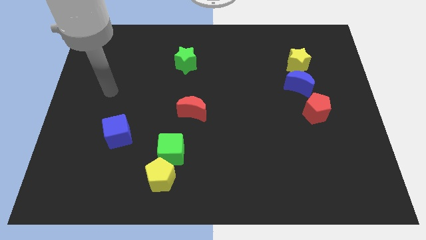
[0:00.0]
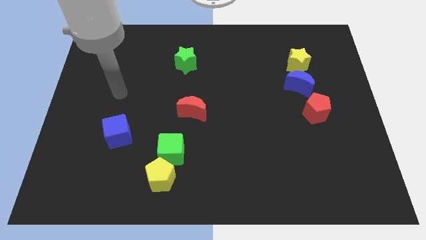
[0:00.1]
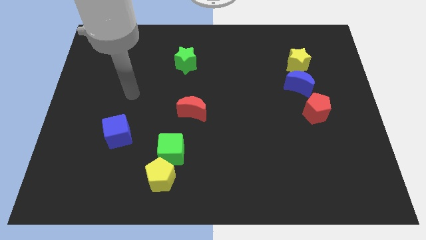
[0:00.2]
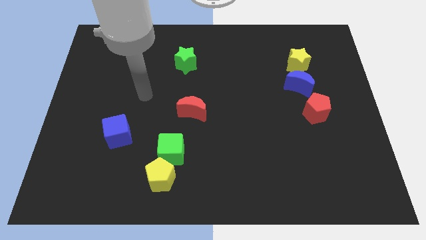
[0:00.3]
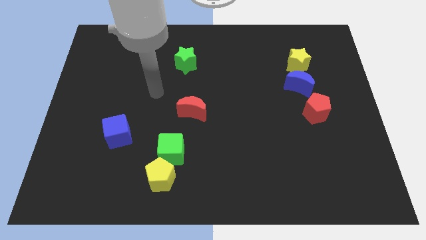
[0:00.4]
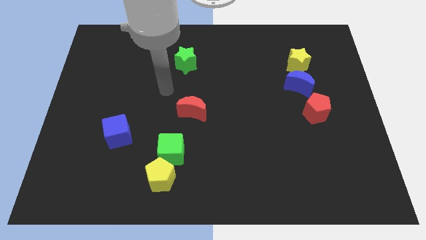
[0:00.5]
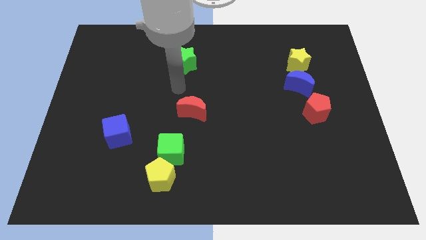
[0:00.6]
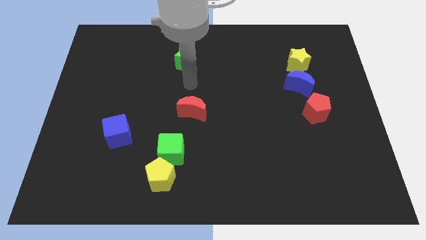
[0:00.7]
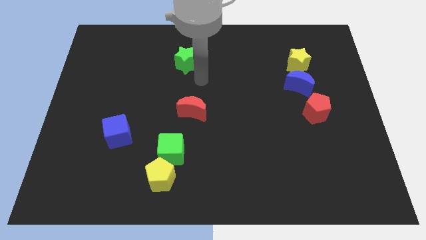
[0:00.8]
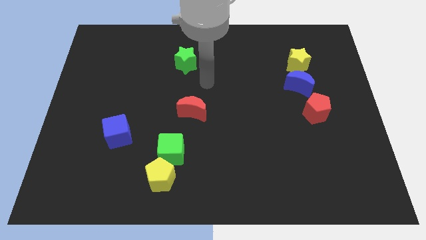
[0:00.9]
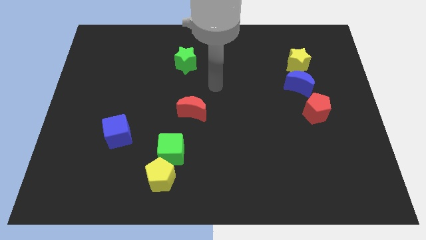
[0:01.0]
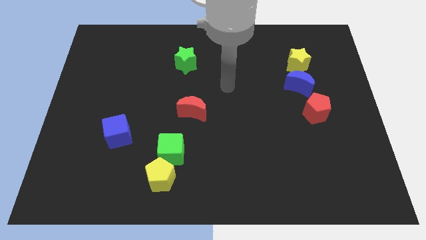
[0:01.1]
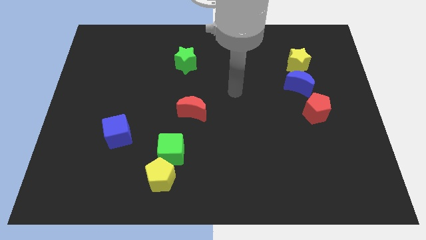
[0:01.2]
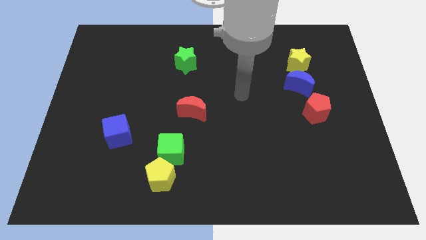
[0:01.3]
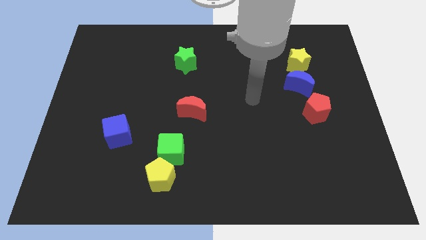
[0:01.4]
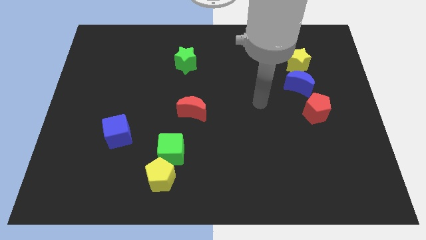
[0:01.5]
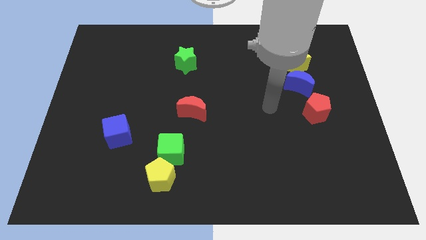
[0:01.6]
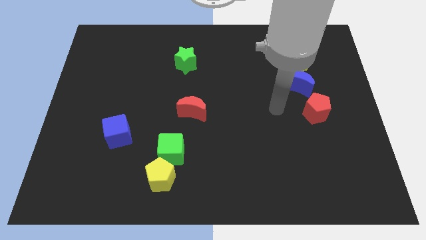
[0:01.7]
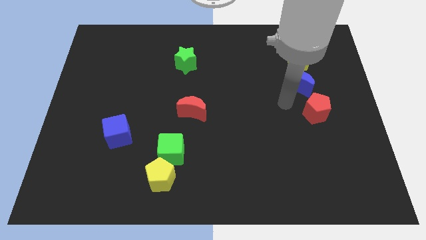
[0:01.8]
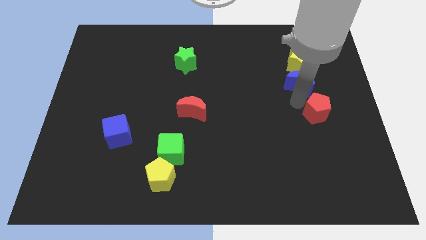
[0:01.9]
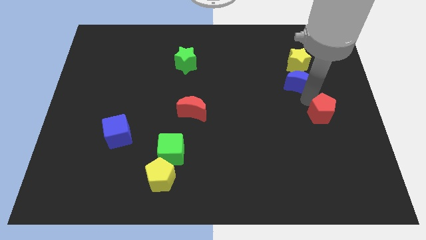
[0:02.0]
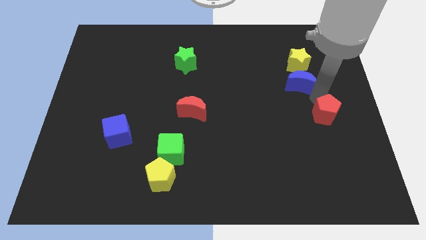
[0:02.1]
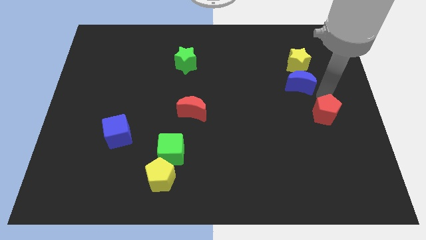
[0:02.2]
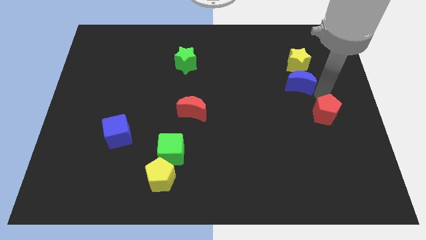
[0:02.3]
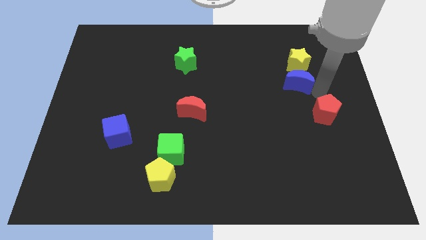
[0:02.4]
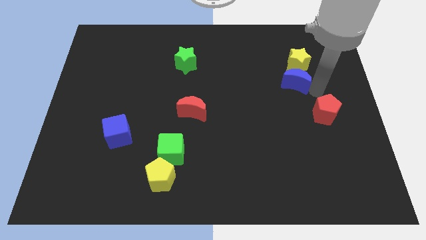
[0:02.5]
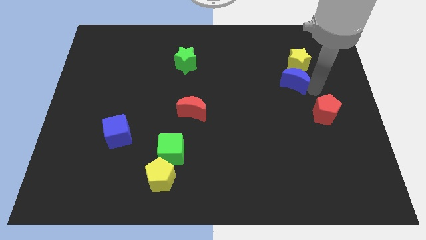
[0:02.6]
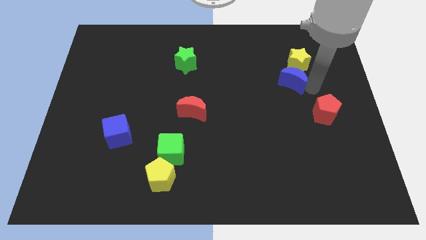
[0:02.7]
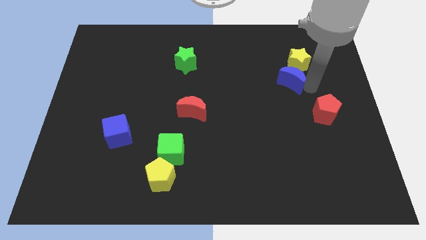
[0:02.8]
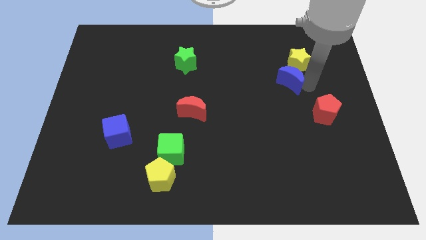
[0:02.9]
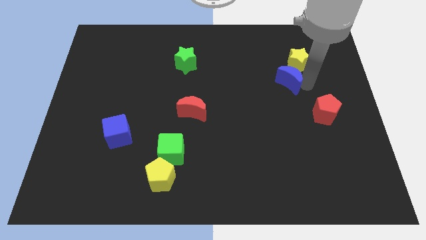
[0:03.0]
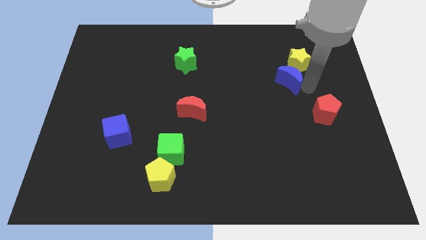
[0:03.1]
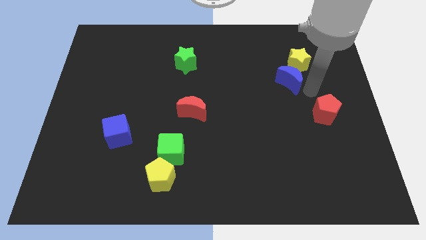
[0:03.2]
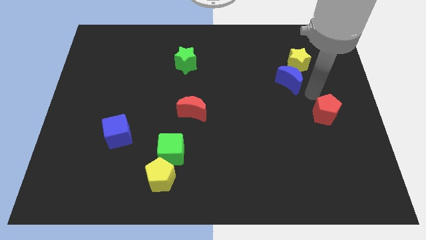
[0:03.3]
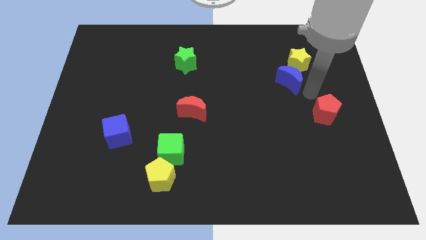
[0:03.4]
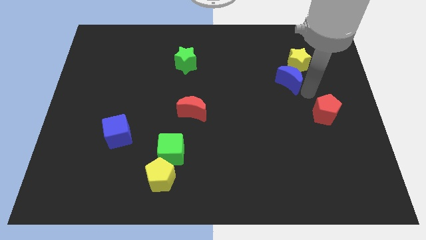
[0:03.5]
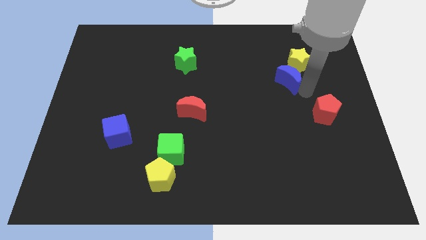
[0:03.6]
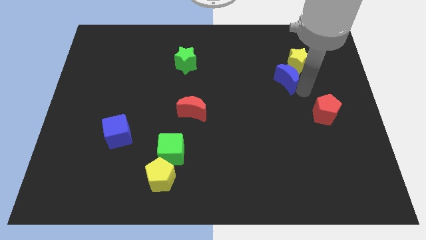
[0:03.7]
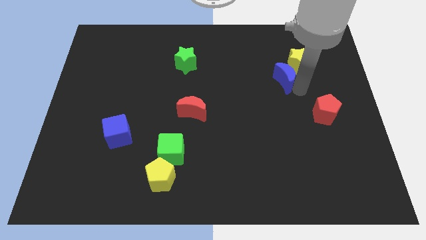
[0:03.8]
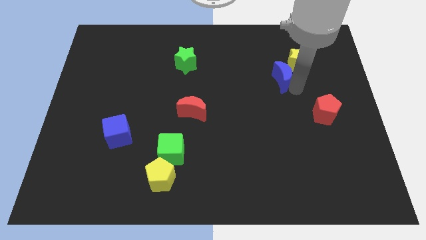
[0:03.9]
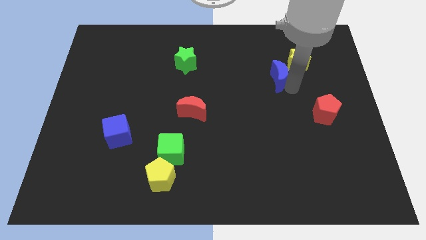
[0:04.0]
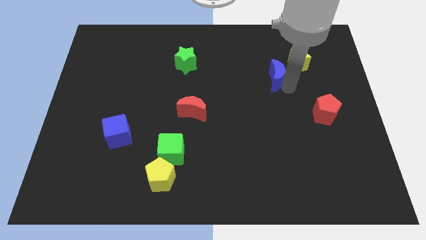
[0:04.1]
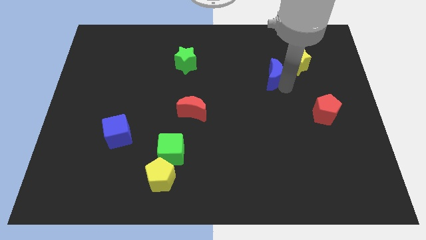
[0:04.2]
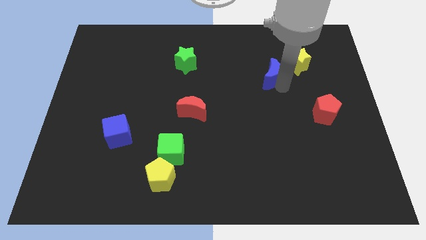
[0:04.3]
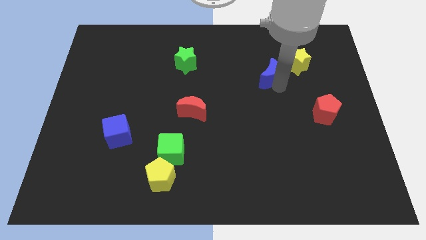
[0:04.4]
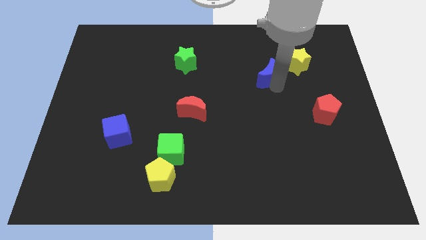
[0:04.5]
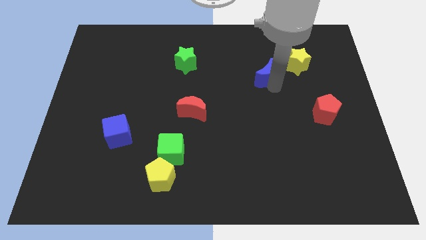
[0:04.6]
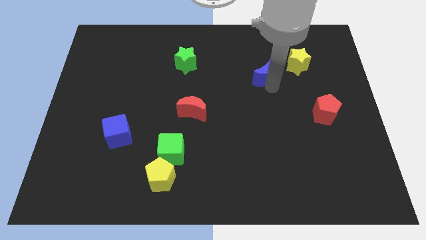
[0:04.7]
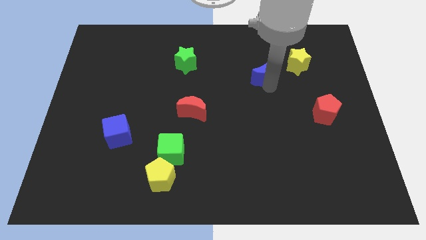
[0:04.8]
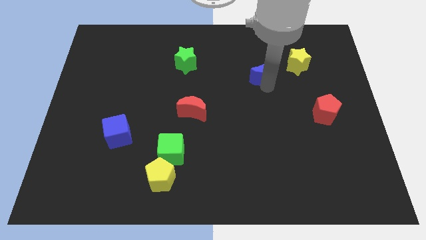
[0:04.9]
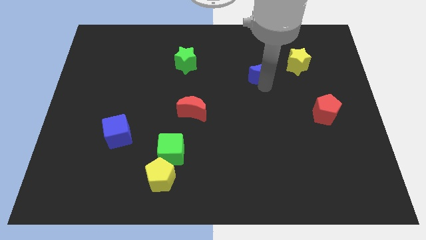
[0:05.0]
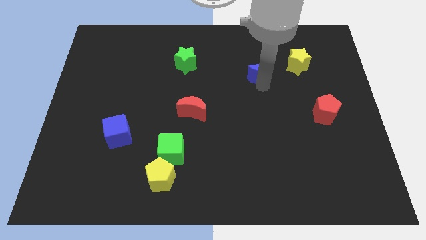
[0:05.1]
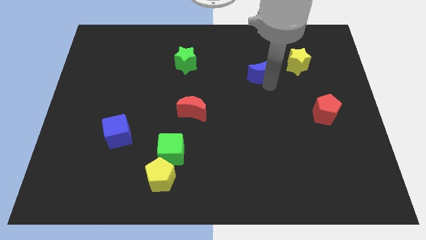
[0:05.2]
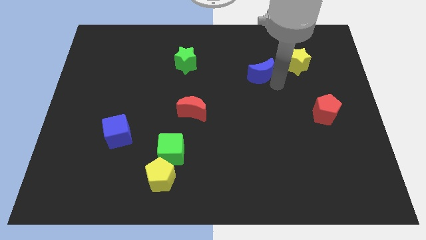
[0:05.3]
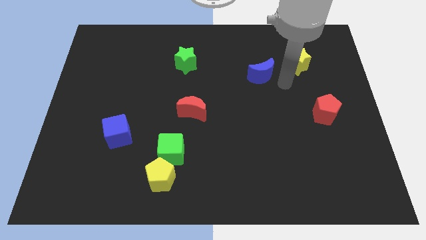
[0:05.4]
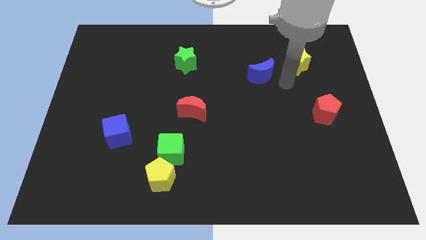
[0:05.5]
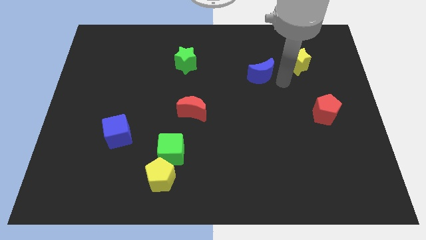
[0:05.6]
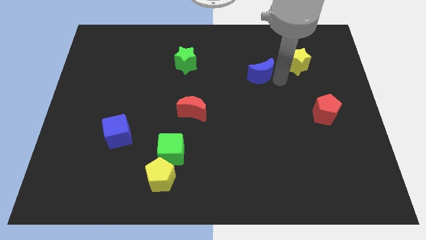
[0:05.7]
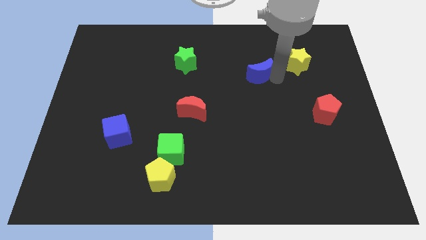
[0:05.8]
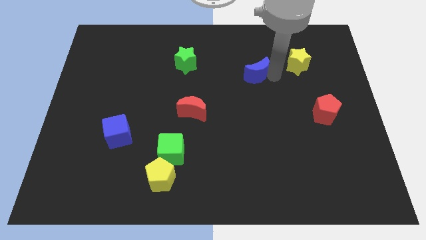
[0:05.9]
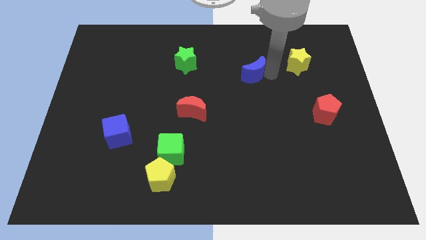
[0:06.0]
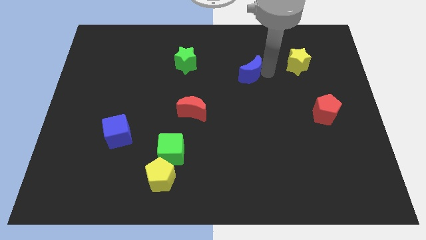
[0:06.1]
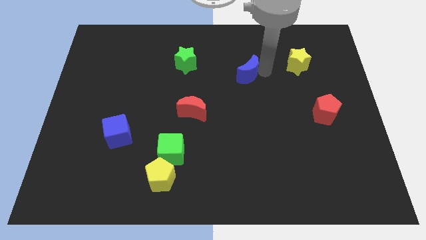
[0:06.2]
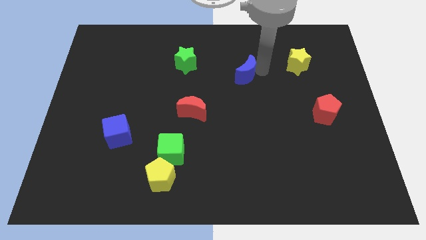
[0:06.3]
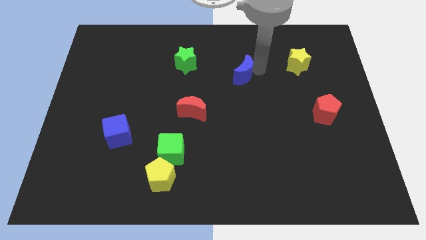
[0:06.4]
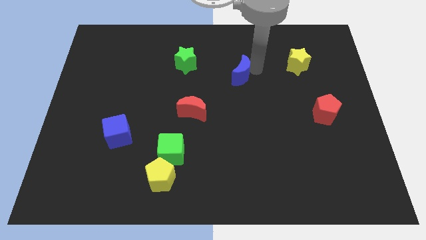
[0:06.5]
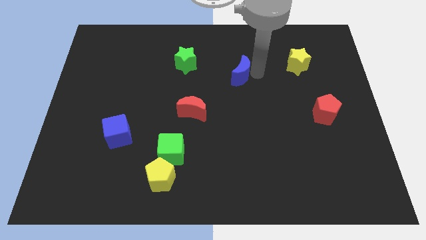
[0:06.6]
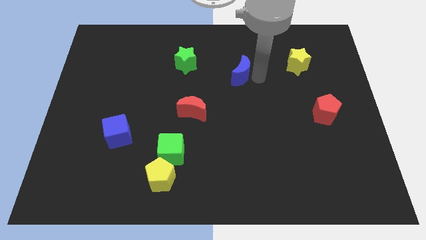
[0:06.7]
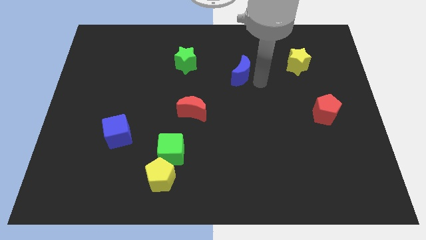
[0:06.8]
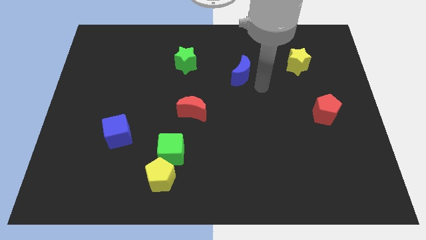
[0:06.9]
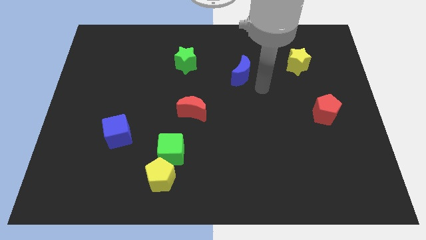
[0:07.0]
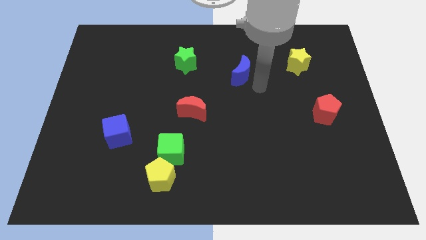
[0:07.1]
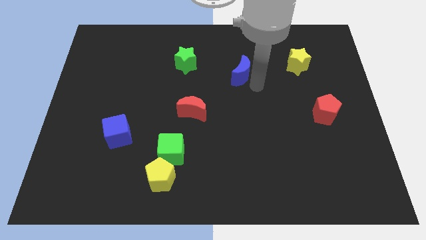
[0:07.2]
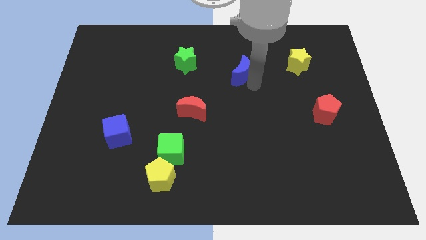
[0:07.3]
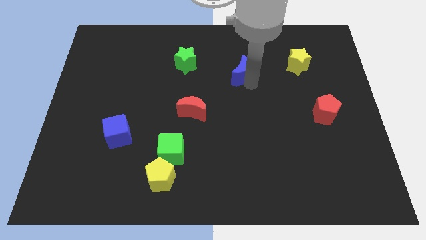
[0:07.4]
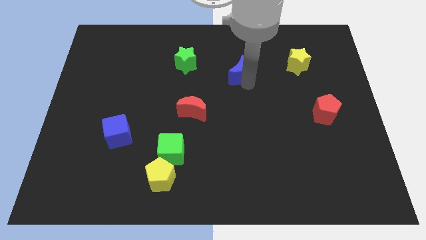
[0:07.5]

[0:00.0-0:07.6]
push the blue moon right of the green star
